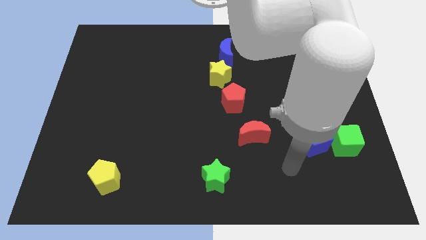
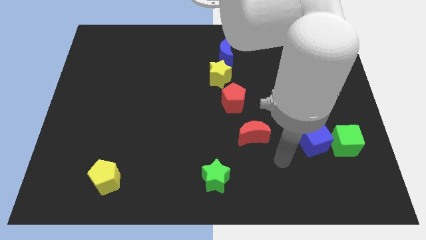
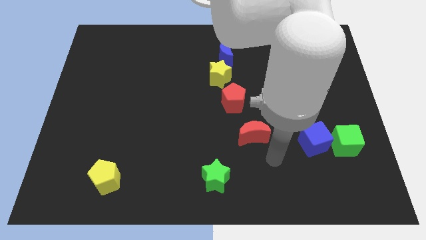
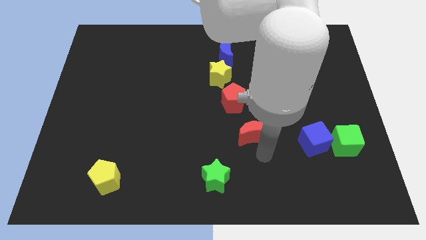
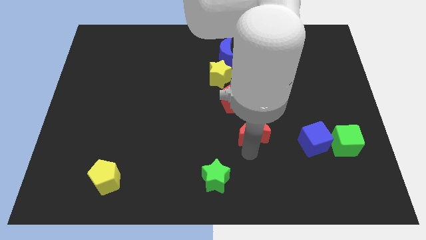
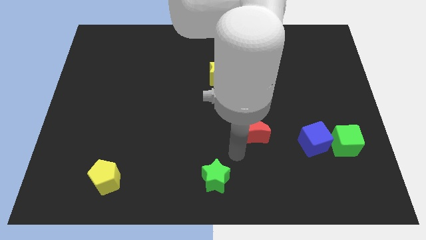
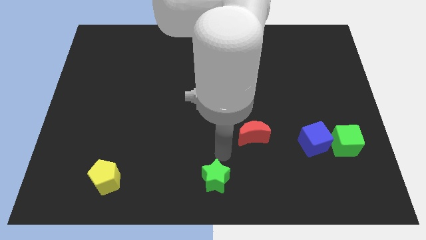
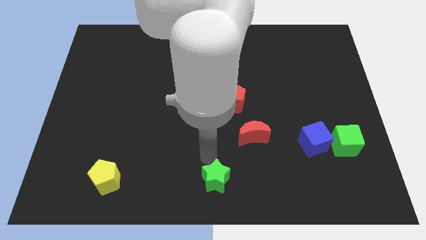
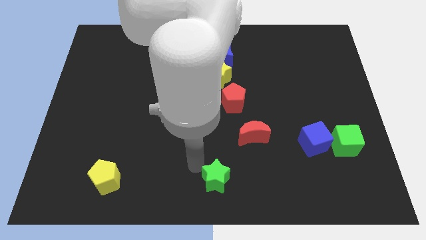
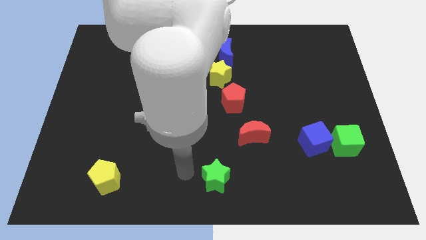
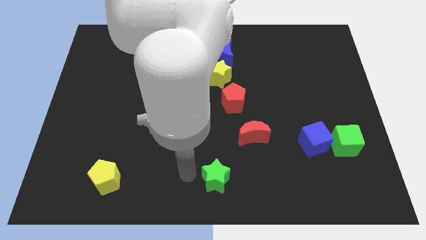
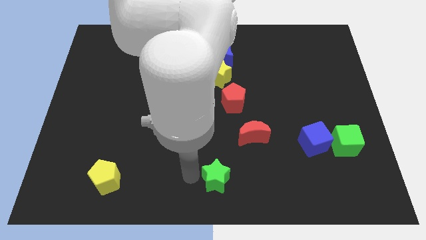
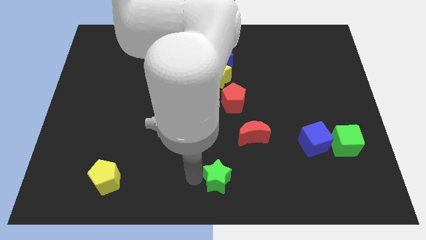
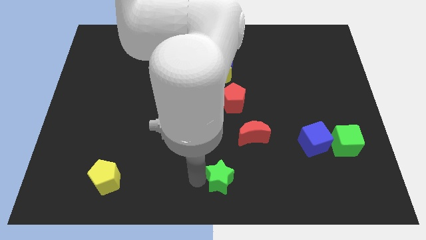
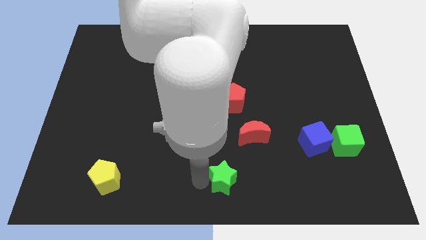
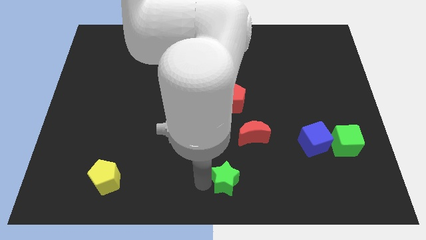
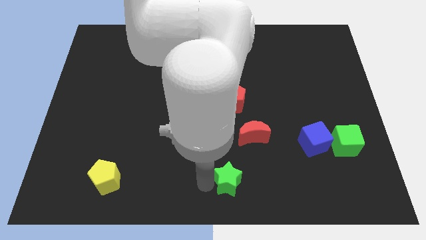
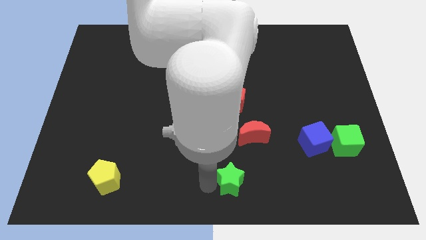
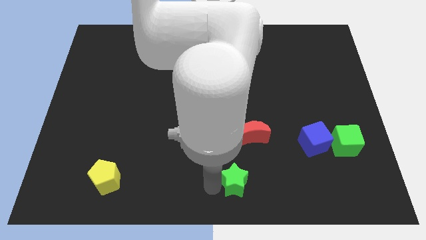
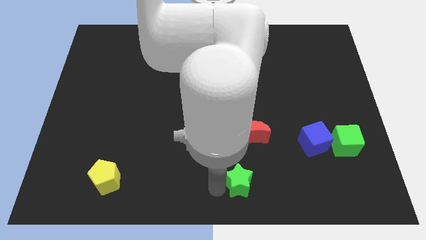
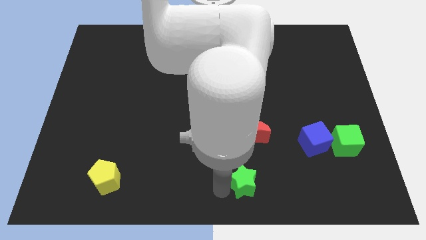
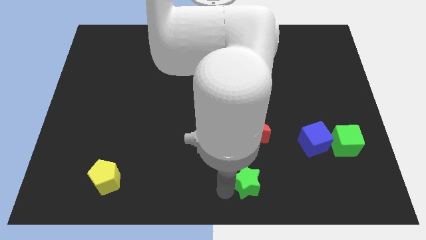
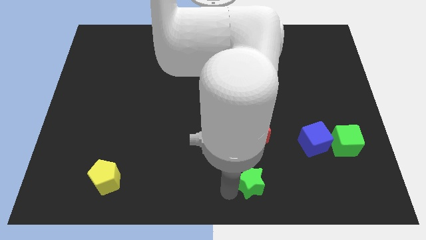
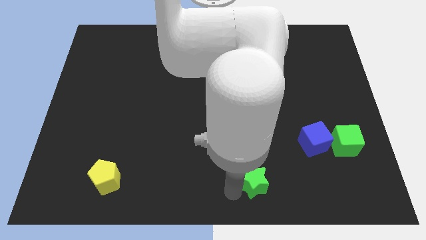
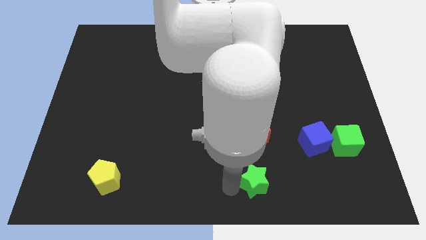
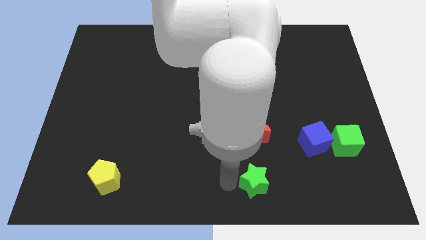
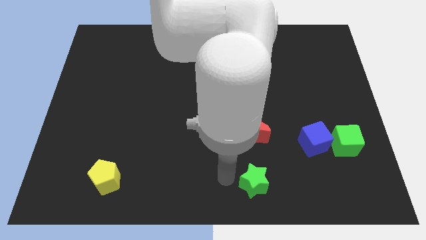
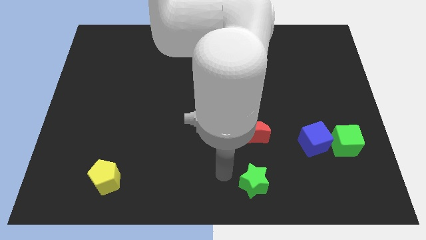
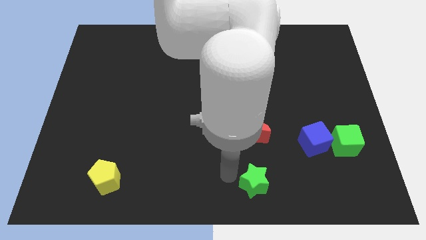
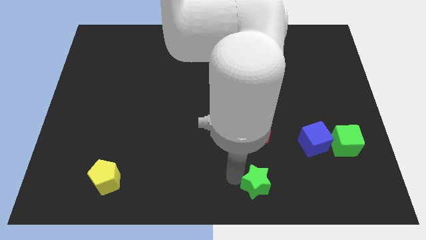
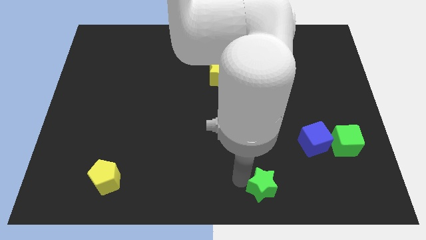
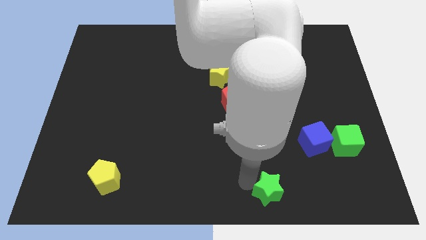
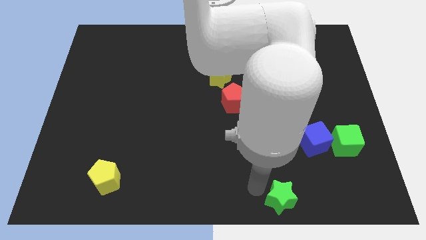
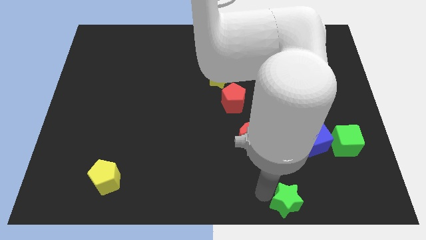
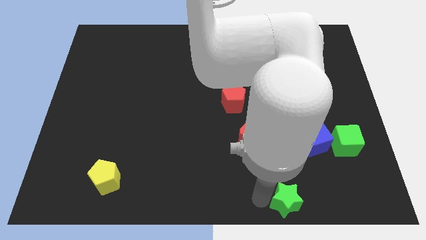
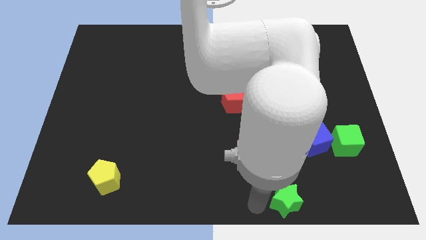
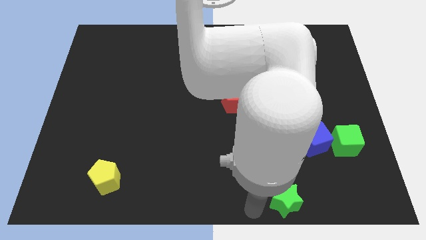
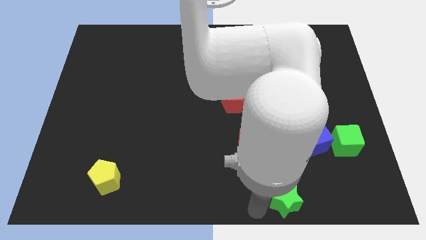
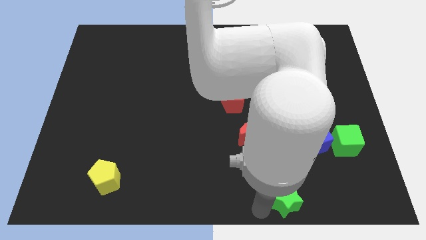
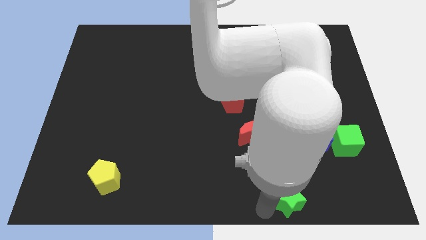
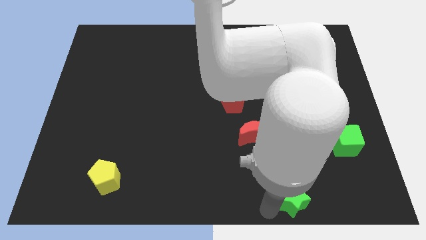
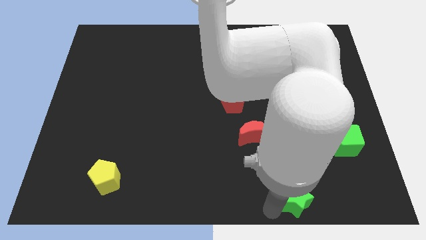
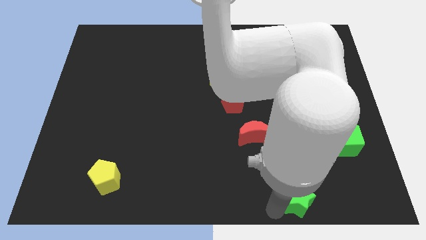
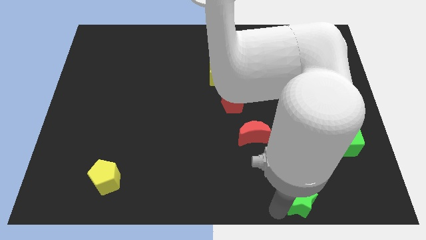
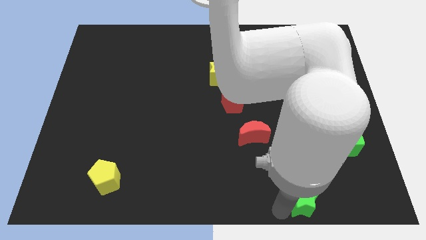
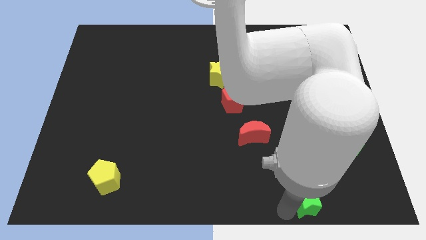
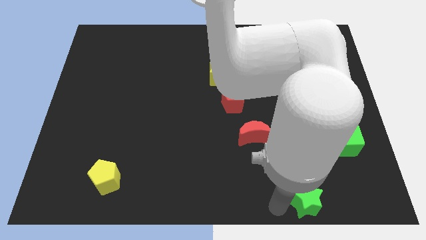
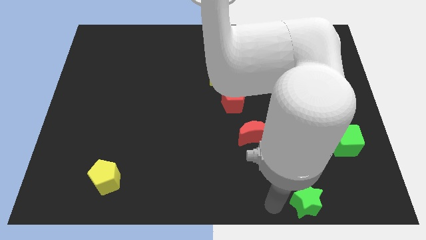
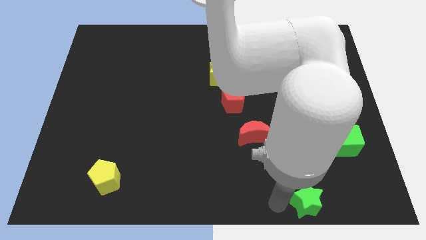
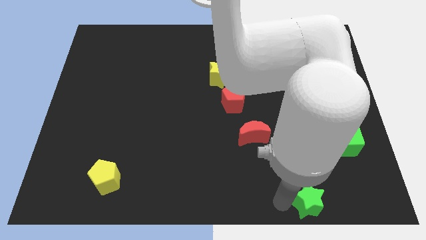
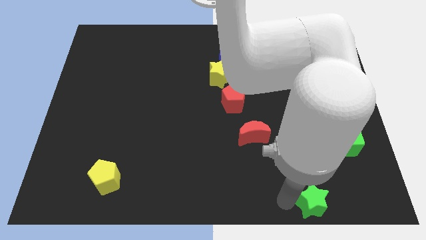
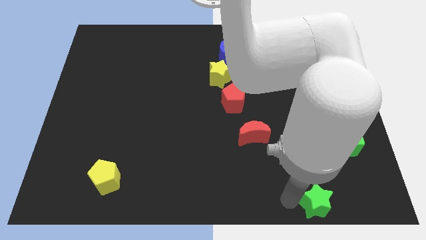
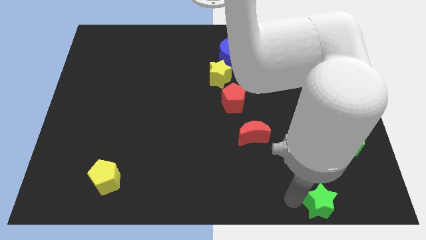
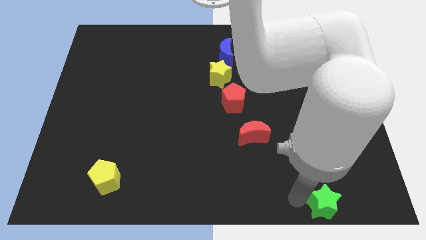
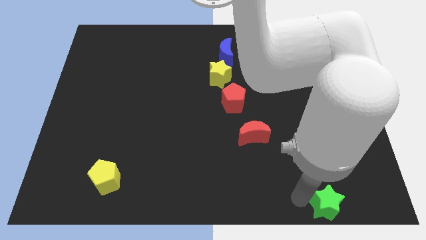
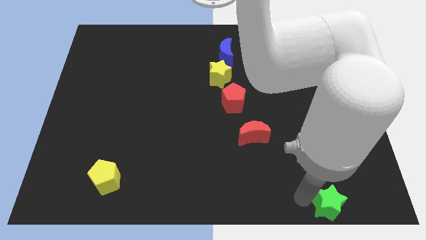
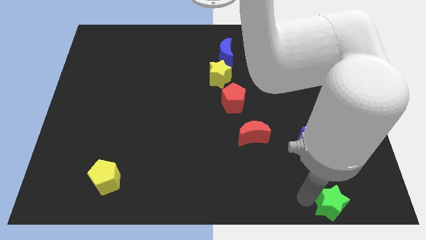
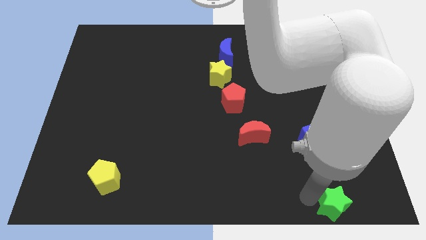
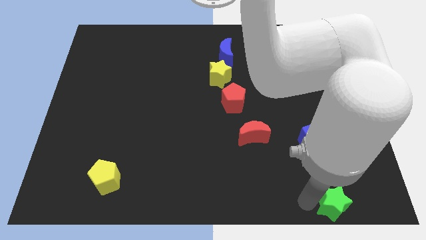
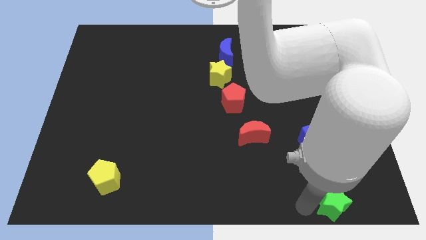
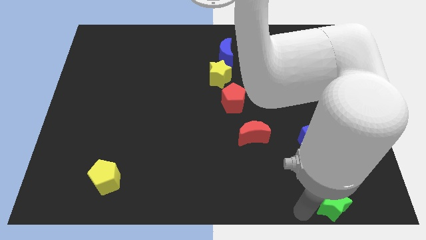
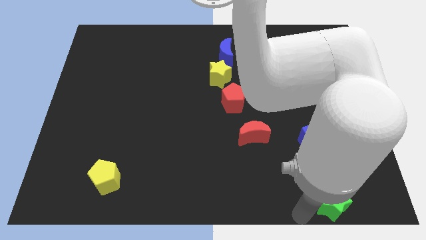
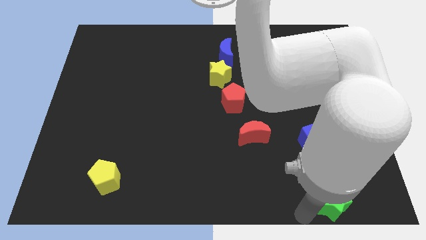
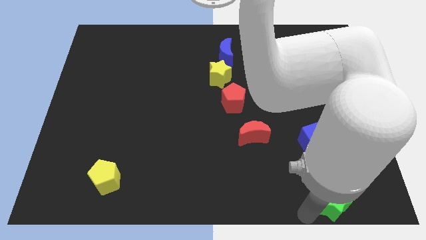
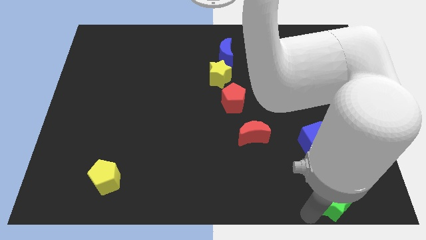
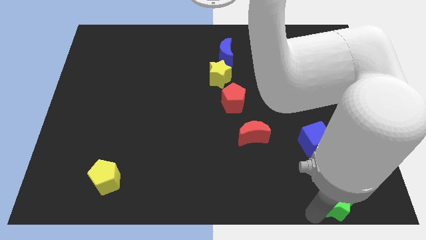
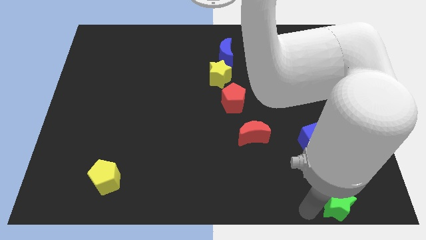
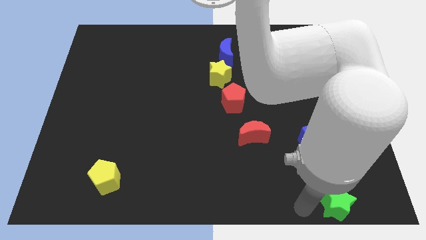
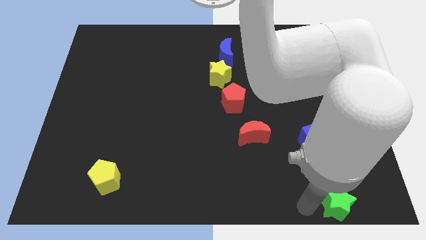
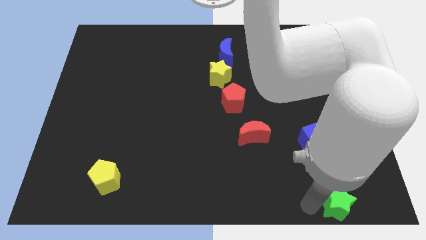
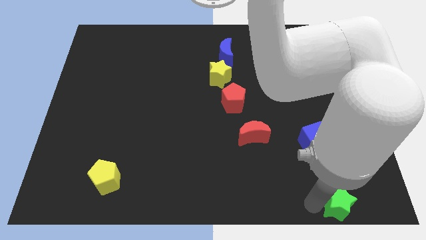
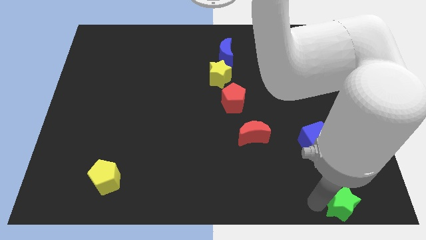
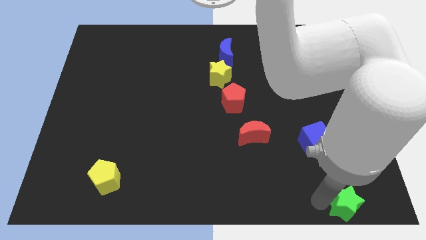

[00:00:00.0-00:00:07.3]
put the green star to the bottom right corner
